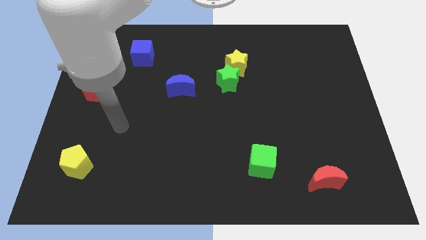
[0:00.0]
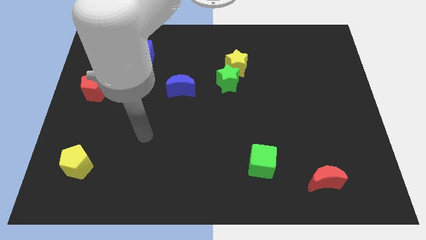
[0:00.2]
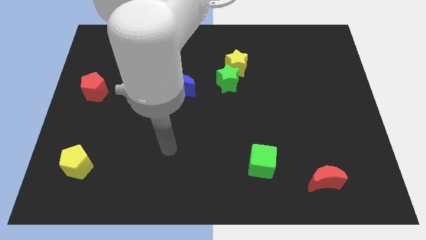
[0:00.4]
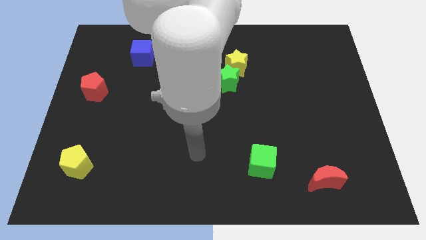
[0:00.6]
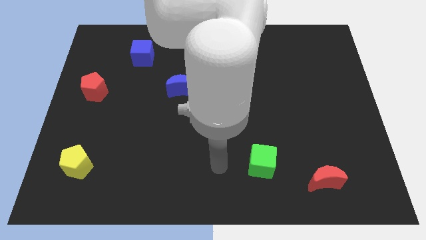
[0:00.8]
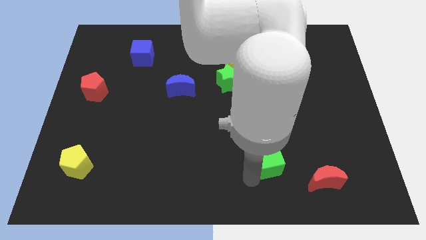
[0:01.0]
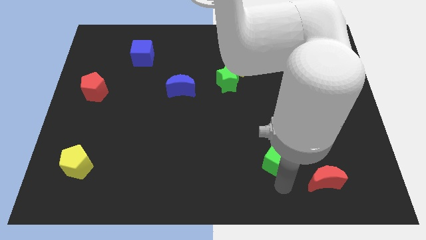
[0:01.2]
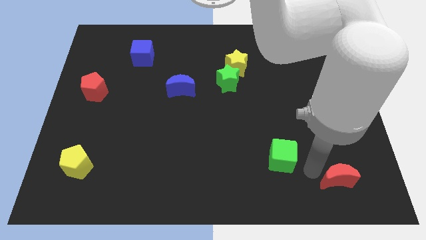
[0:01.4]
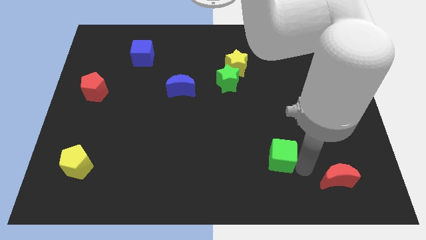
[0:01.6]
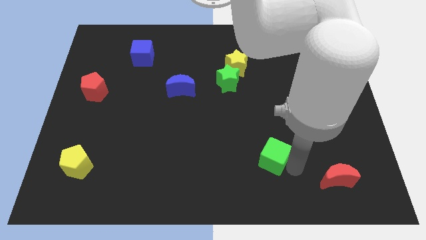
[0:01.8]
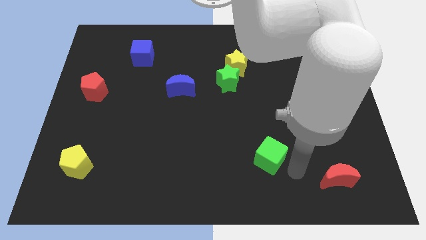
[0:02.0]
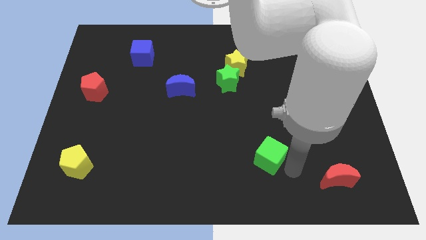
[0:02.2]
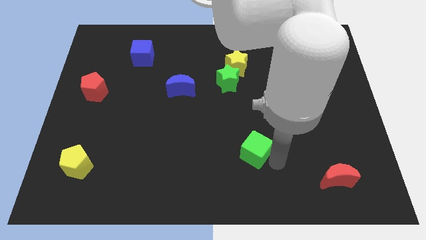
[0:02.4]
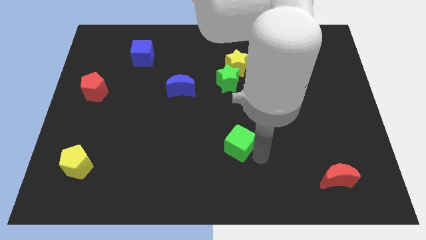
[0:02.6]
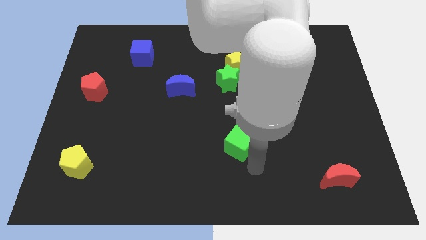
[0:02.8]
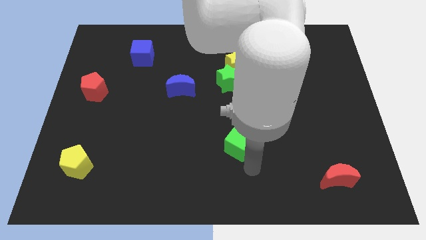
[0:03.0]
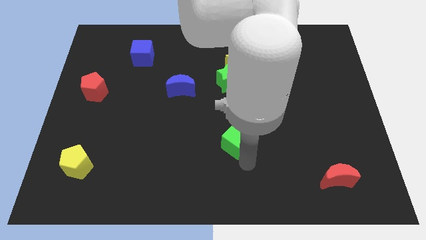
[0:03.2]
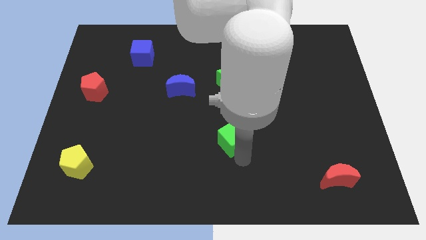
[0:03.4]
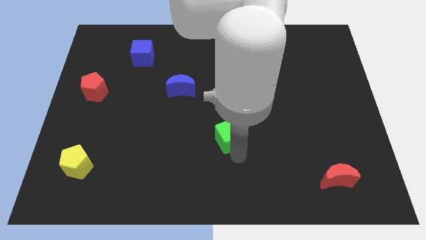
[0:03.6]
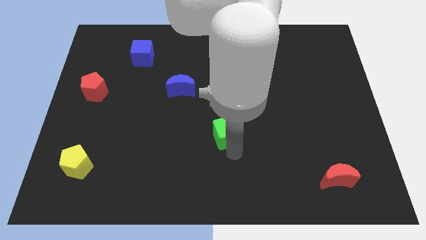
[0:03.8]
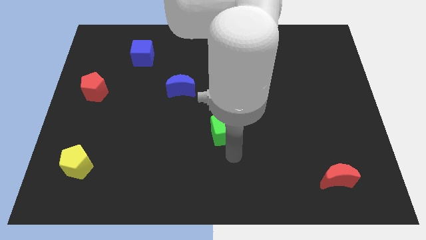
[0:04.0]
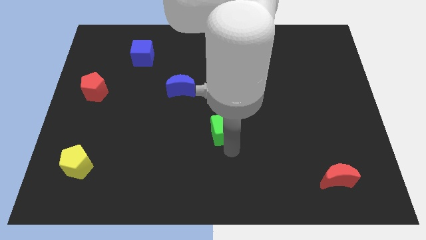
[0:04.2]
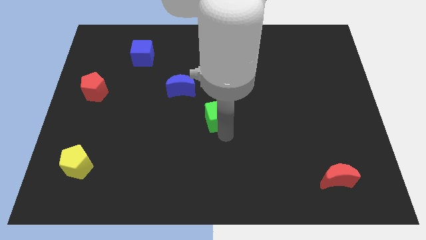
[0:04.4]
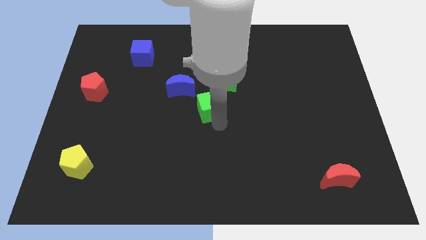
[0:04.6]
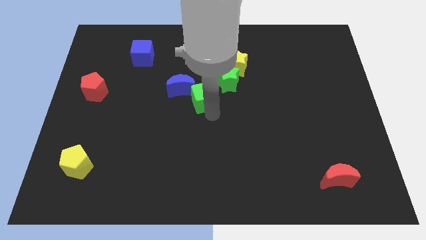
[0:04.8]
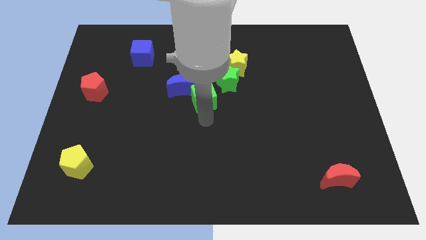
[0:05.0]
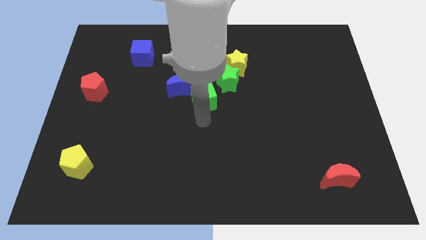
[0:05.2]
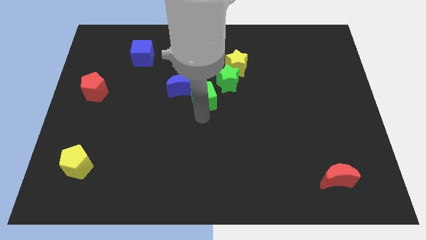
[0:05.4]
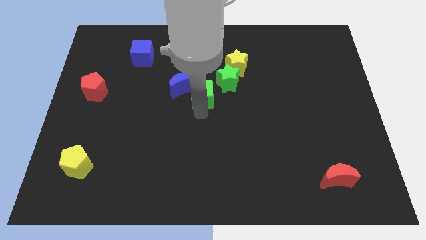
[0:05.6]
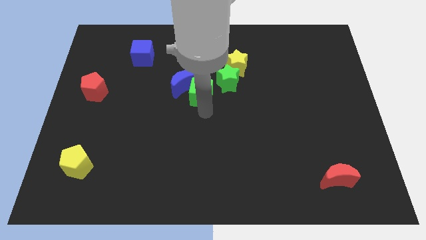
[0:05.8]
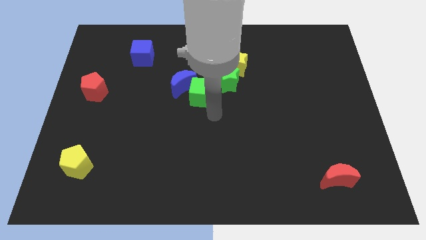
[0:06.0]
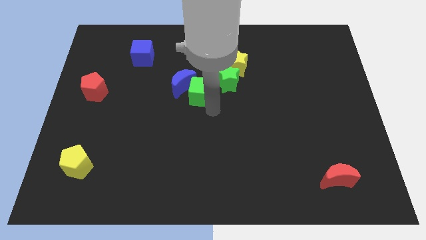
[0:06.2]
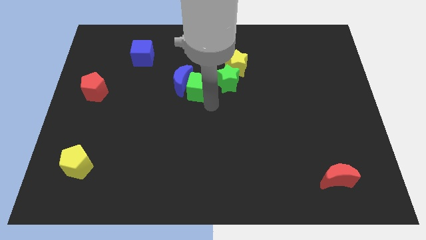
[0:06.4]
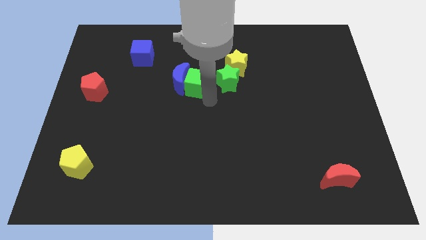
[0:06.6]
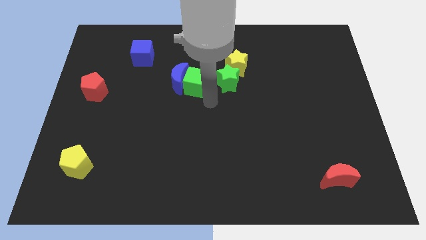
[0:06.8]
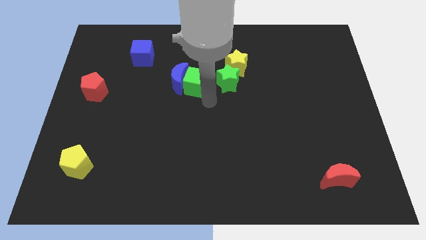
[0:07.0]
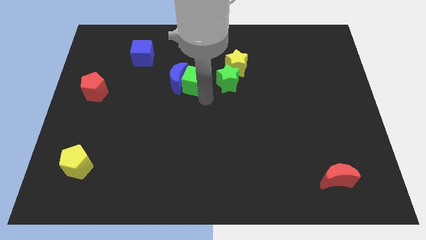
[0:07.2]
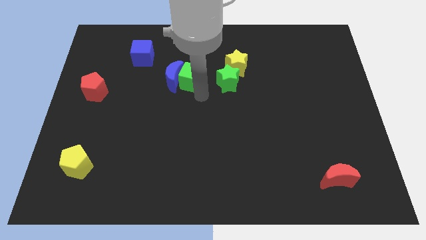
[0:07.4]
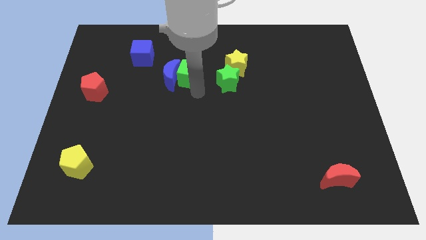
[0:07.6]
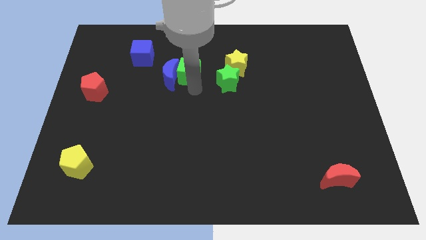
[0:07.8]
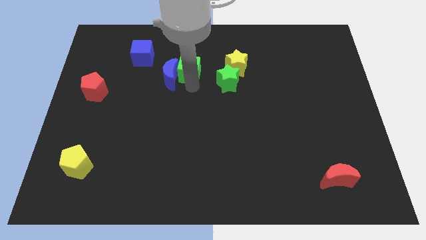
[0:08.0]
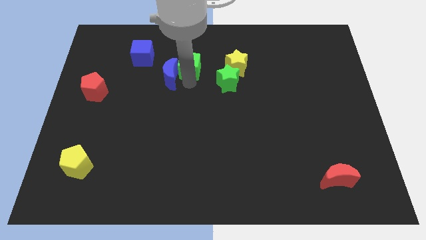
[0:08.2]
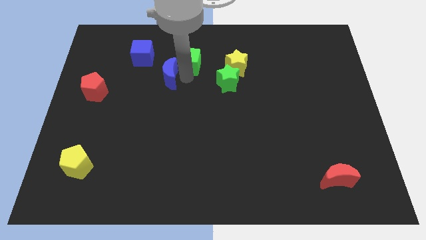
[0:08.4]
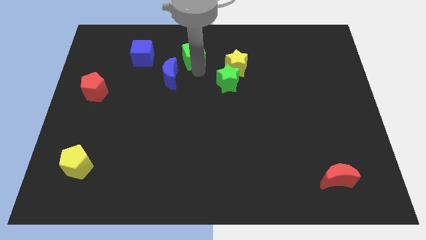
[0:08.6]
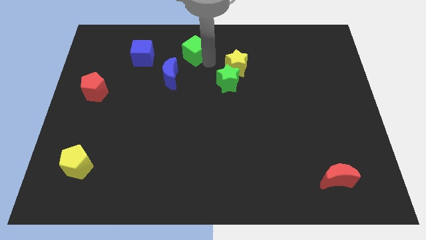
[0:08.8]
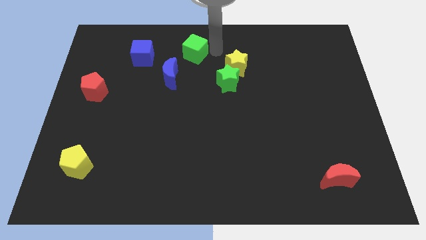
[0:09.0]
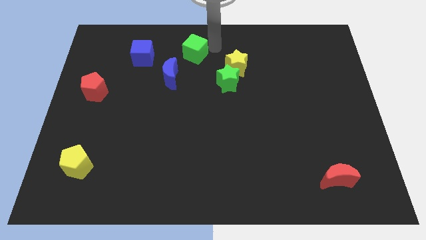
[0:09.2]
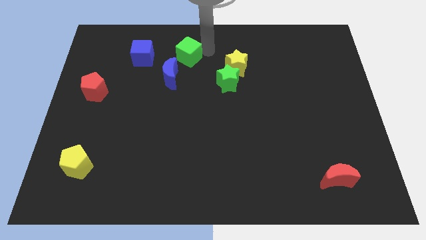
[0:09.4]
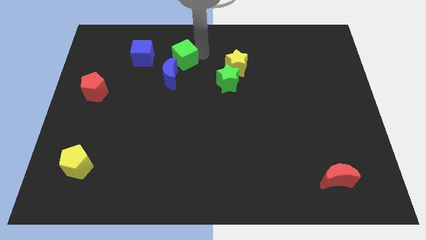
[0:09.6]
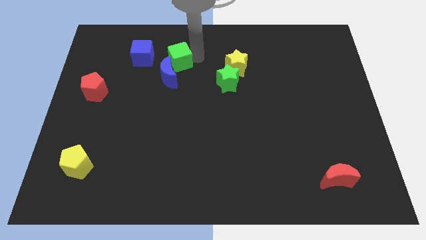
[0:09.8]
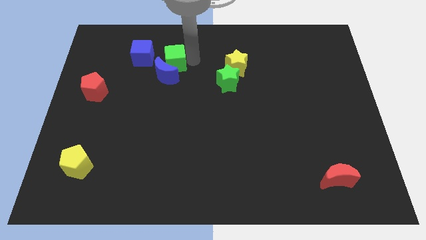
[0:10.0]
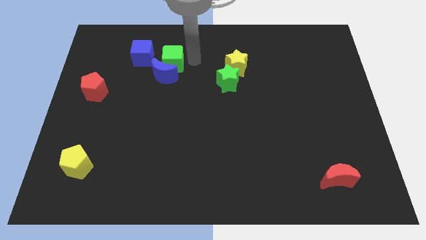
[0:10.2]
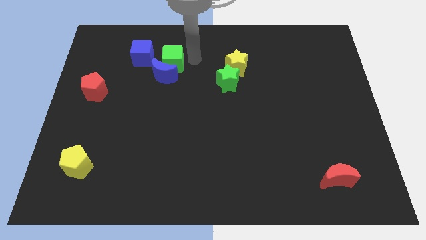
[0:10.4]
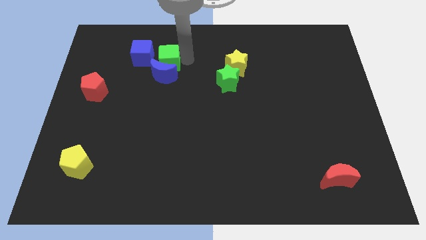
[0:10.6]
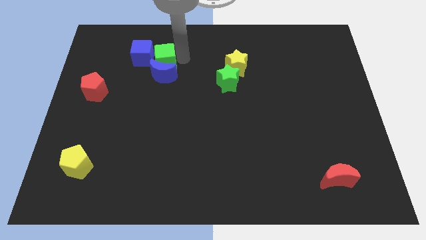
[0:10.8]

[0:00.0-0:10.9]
move the green cube close to the blue cube

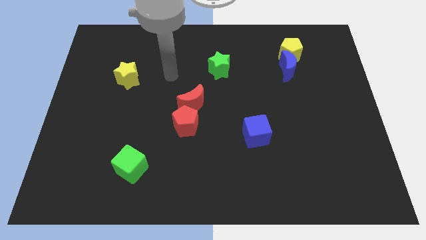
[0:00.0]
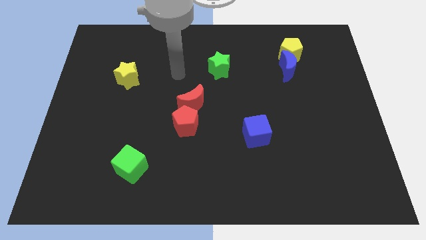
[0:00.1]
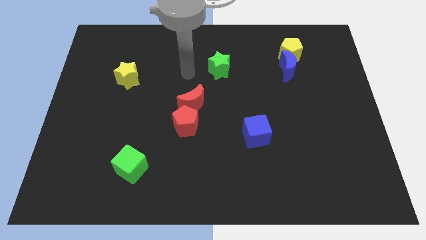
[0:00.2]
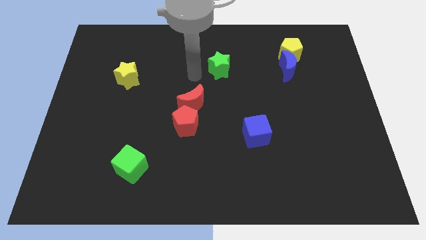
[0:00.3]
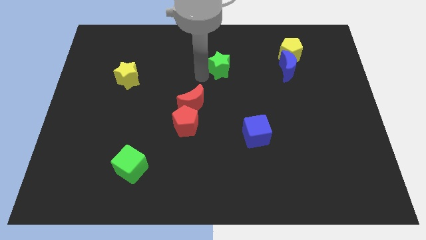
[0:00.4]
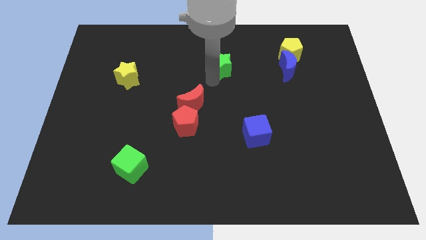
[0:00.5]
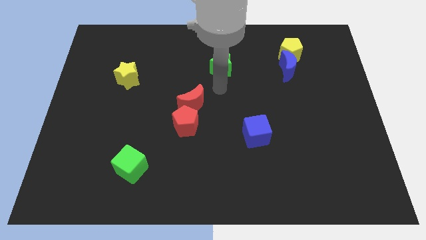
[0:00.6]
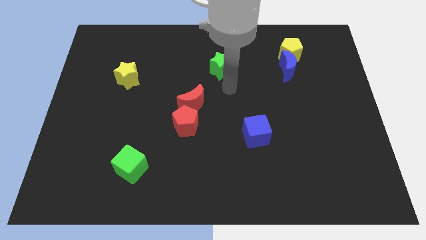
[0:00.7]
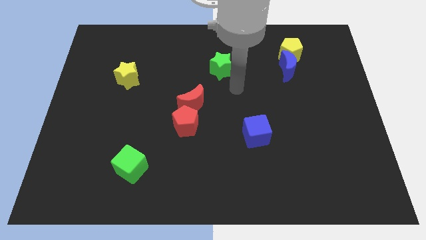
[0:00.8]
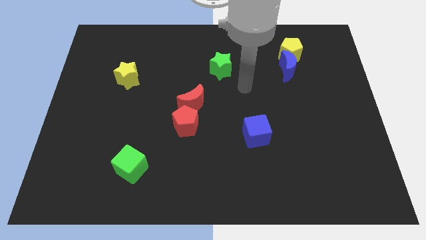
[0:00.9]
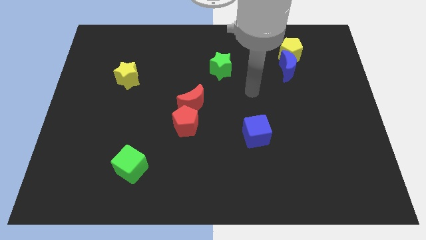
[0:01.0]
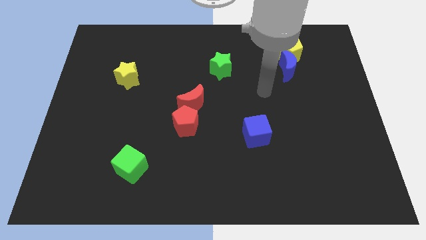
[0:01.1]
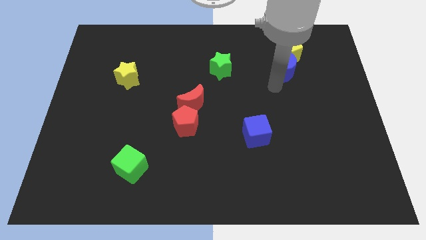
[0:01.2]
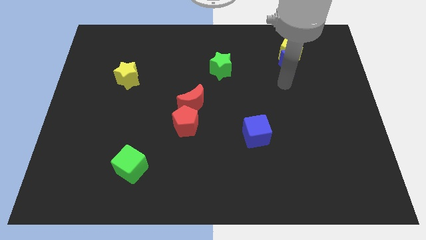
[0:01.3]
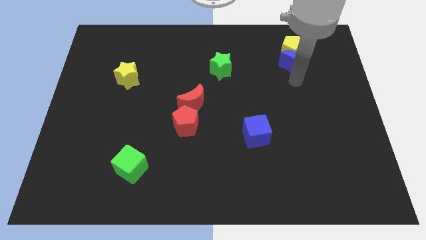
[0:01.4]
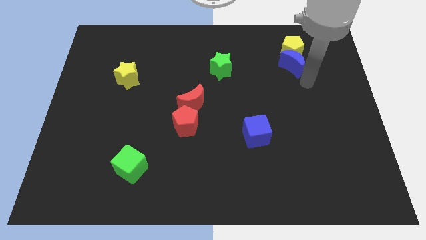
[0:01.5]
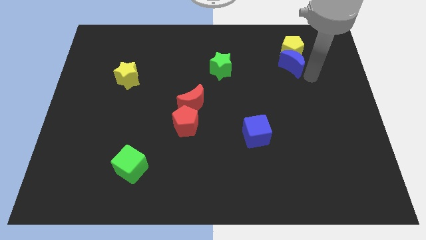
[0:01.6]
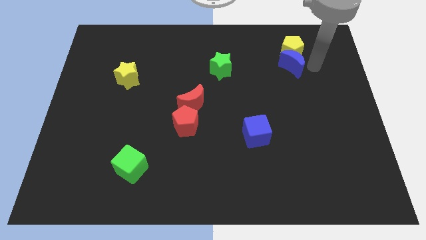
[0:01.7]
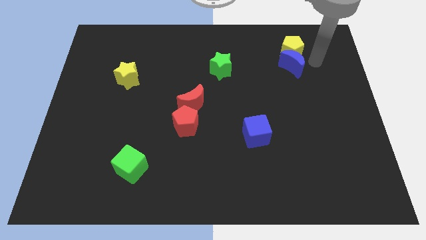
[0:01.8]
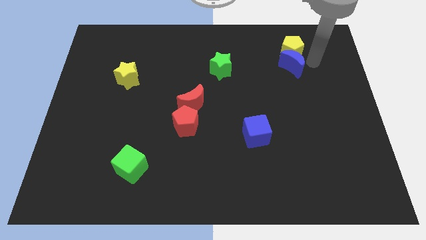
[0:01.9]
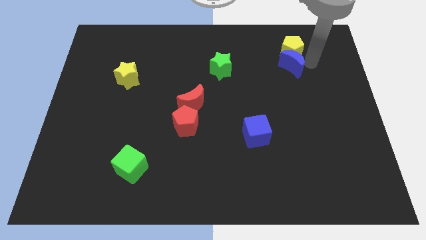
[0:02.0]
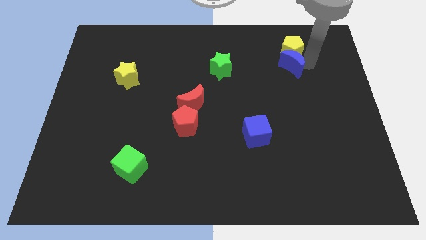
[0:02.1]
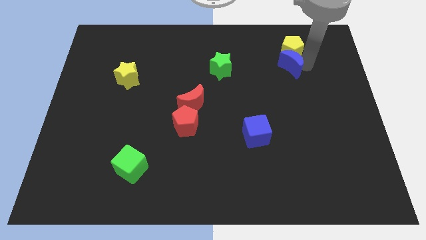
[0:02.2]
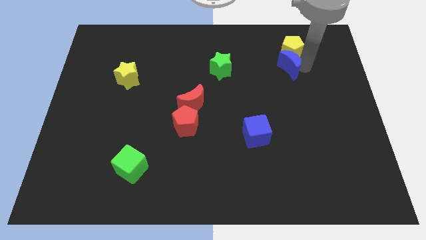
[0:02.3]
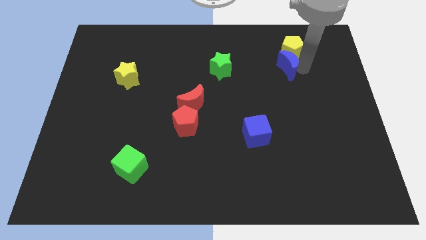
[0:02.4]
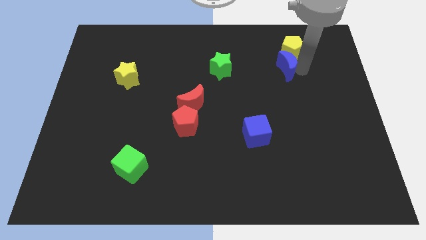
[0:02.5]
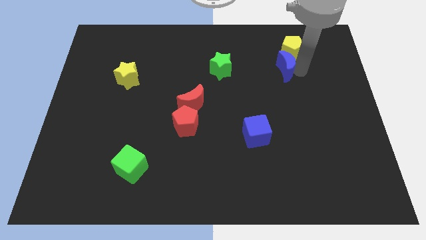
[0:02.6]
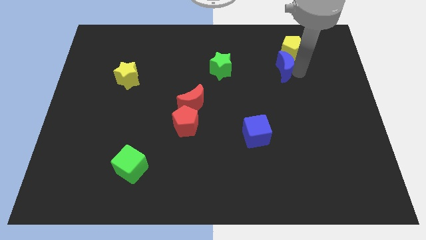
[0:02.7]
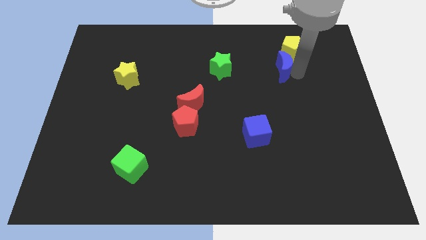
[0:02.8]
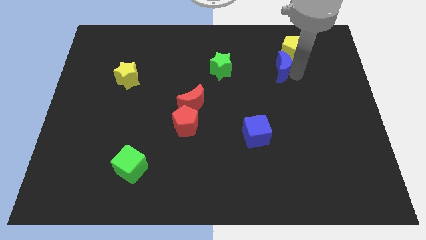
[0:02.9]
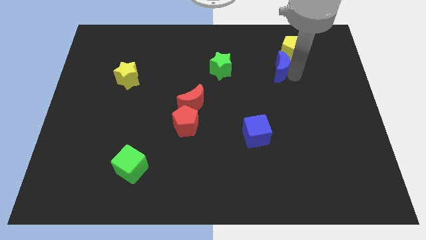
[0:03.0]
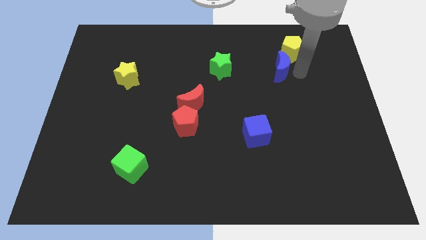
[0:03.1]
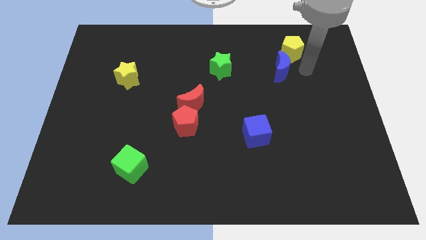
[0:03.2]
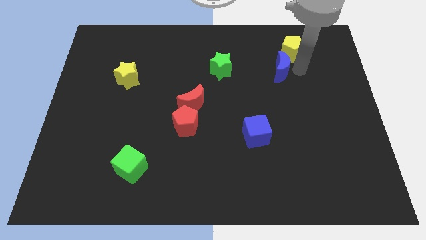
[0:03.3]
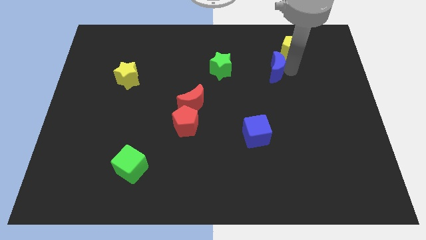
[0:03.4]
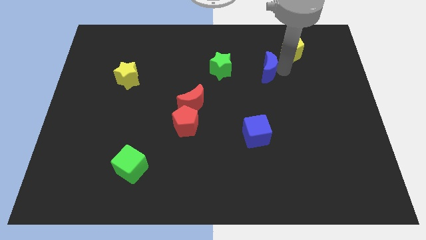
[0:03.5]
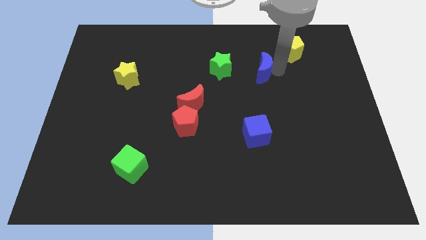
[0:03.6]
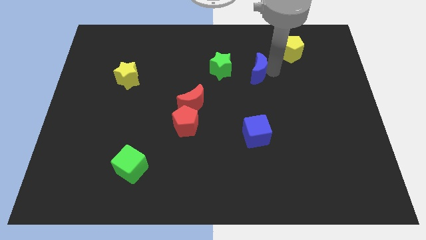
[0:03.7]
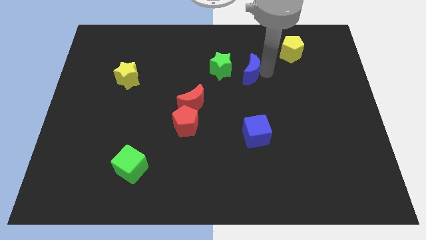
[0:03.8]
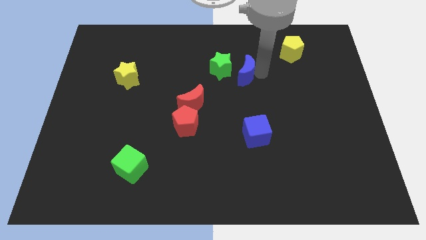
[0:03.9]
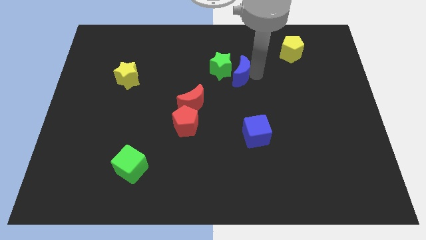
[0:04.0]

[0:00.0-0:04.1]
move the blue moon next to the green star
